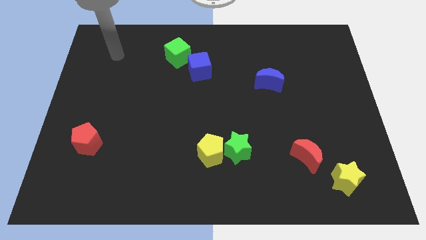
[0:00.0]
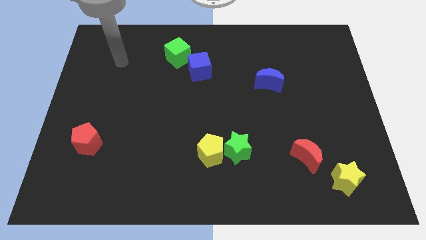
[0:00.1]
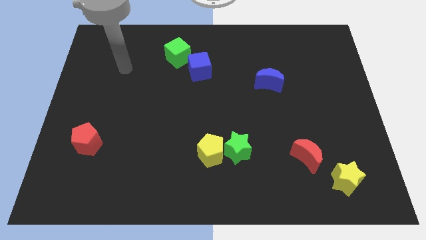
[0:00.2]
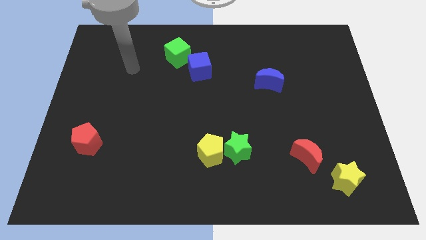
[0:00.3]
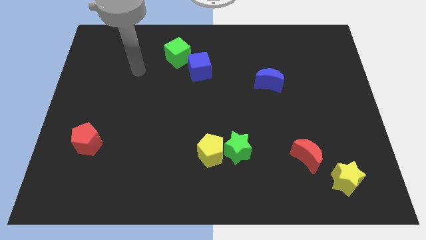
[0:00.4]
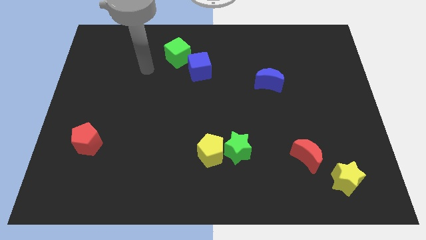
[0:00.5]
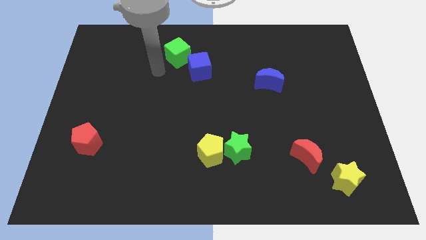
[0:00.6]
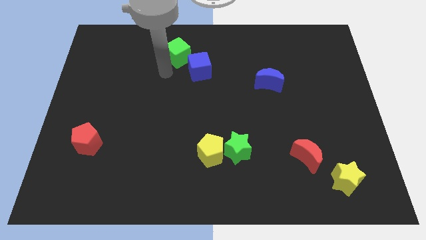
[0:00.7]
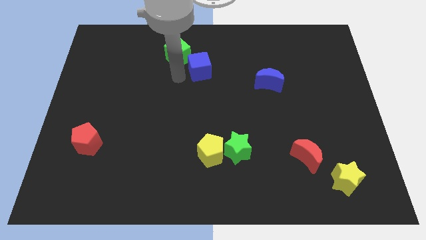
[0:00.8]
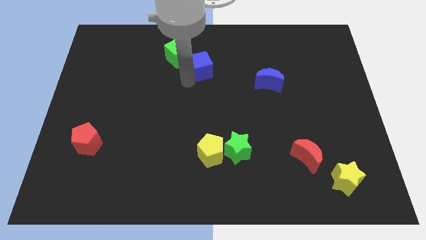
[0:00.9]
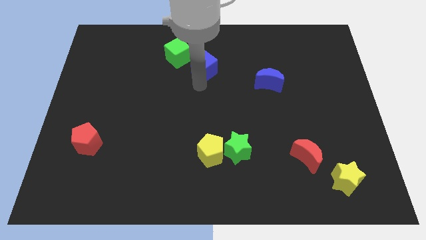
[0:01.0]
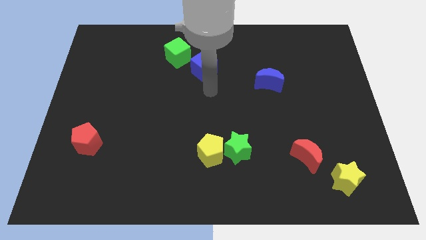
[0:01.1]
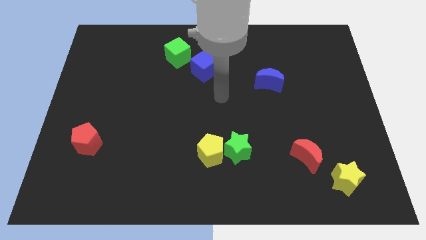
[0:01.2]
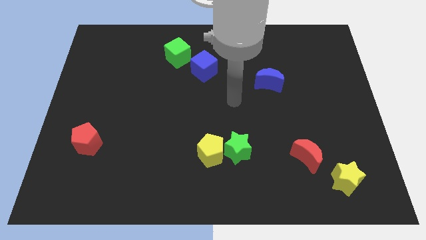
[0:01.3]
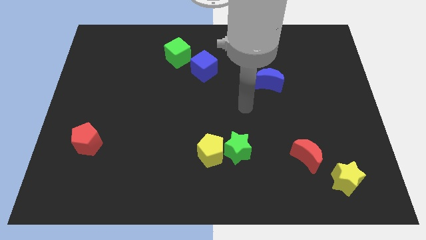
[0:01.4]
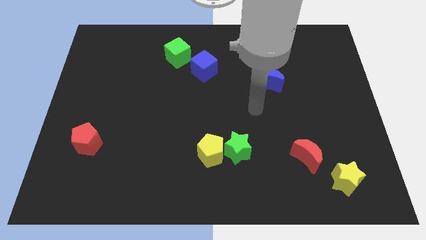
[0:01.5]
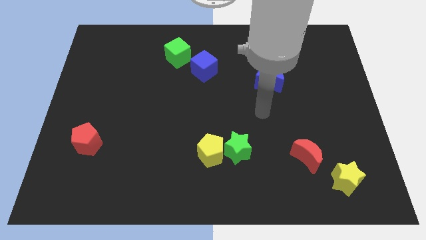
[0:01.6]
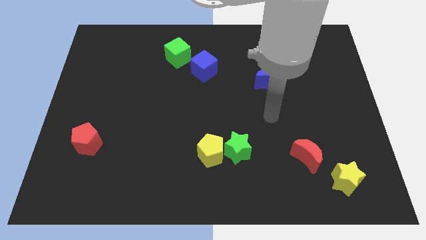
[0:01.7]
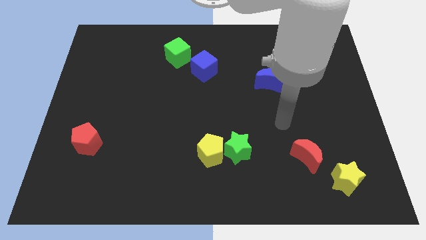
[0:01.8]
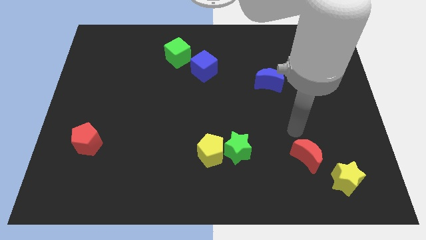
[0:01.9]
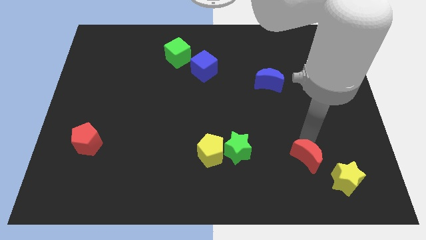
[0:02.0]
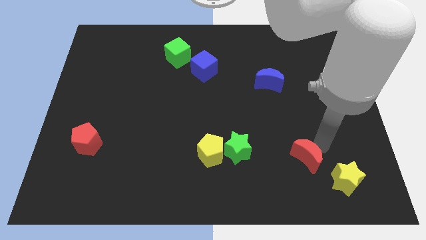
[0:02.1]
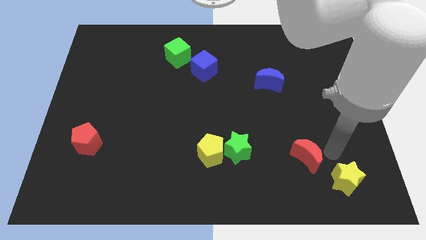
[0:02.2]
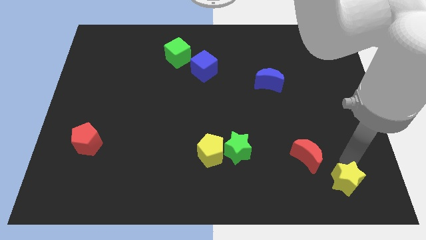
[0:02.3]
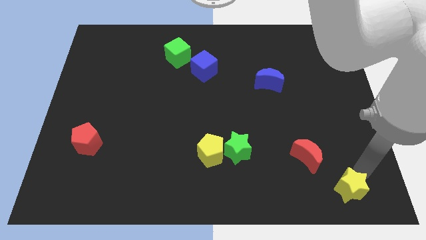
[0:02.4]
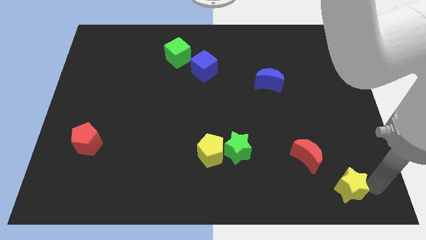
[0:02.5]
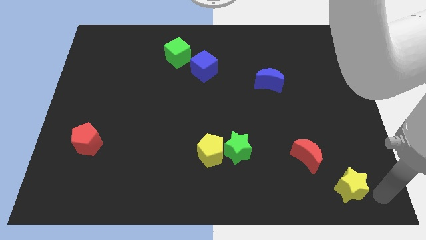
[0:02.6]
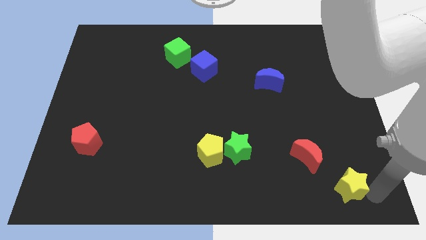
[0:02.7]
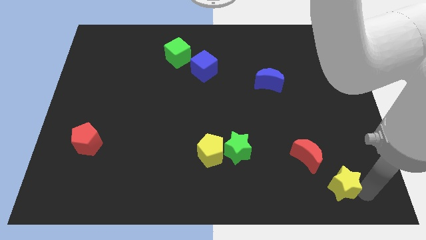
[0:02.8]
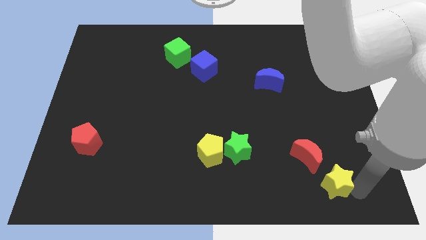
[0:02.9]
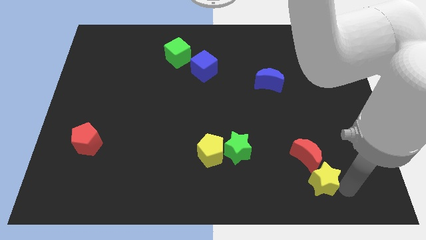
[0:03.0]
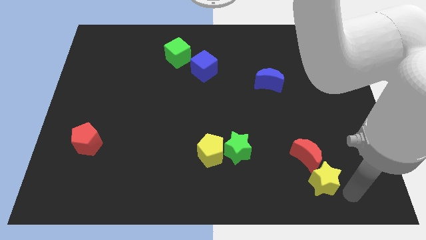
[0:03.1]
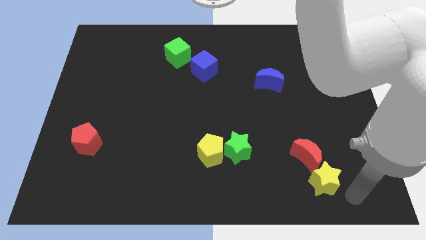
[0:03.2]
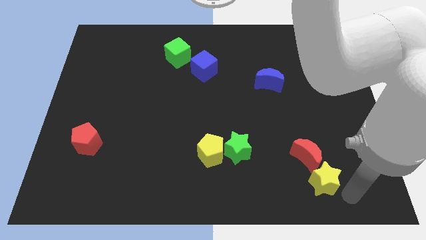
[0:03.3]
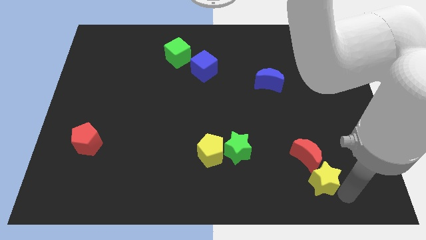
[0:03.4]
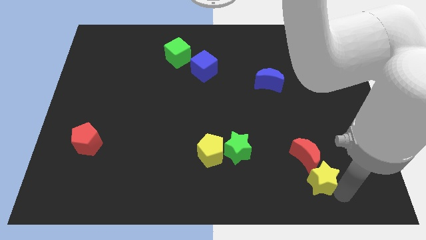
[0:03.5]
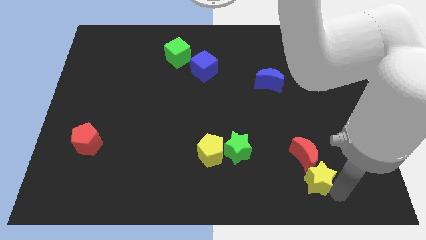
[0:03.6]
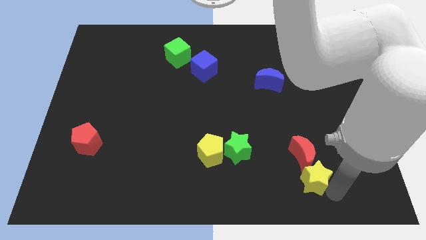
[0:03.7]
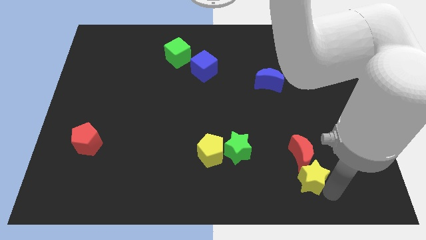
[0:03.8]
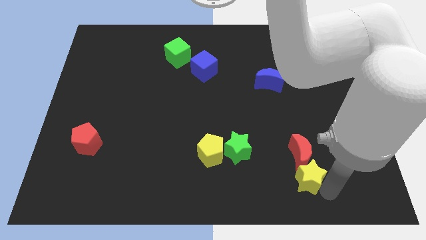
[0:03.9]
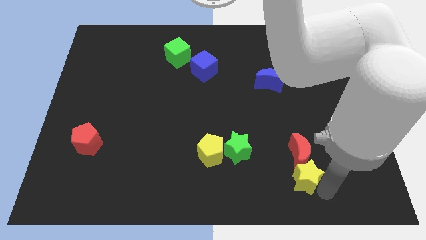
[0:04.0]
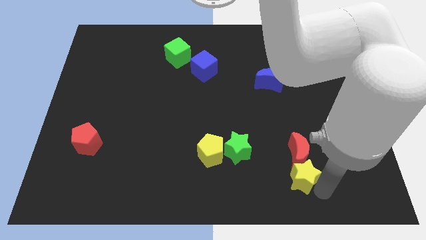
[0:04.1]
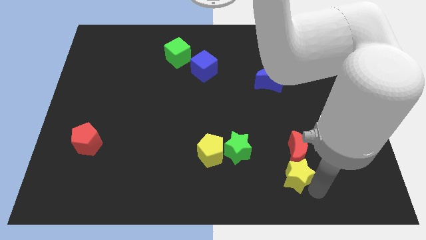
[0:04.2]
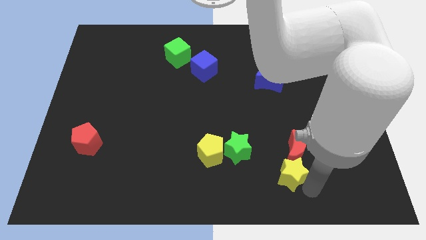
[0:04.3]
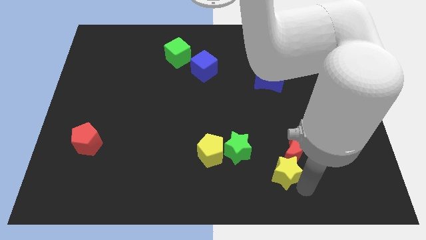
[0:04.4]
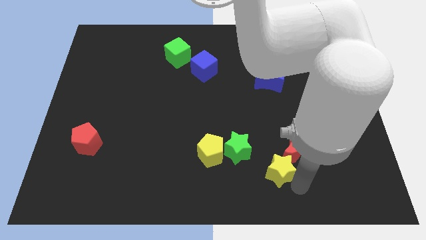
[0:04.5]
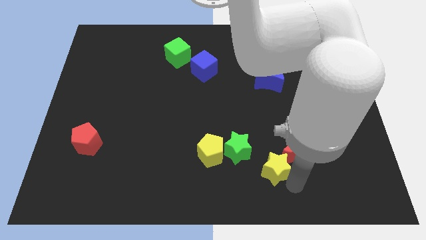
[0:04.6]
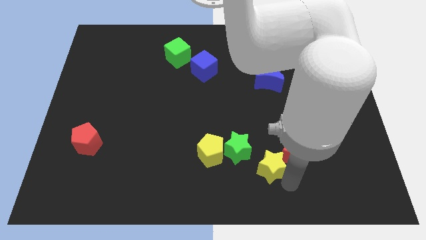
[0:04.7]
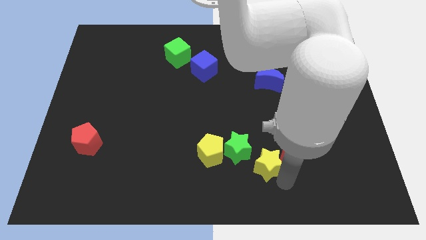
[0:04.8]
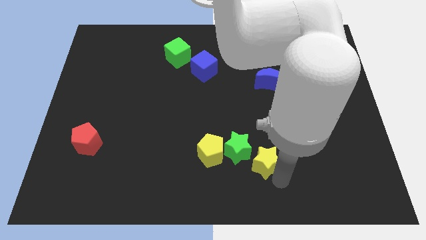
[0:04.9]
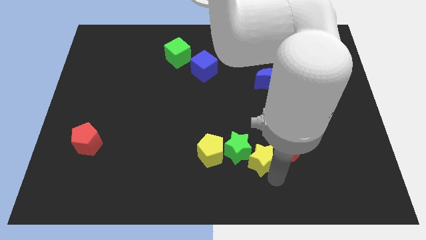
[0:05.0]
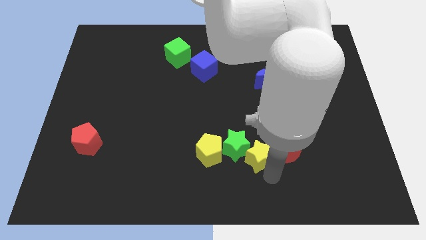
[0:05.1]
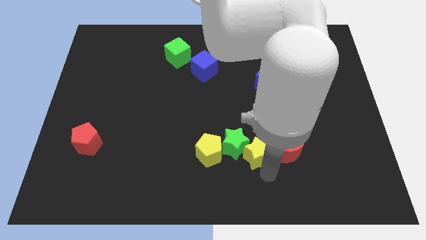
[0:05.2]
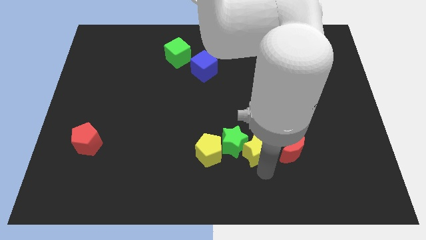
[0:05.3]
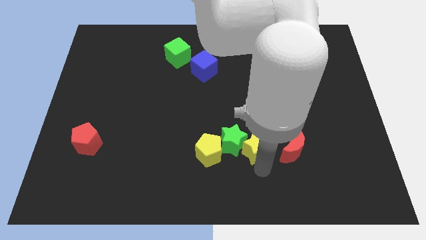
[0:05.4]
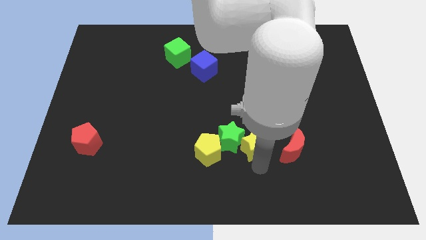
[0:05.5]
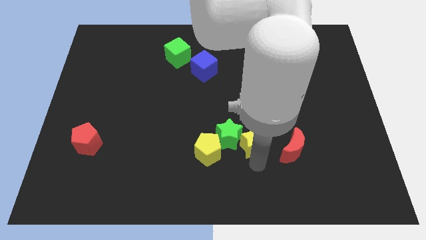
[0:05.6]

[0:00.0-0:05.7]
put the yellow star to the top left side of the red moon

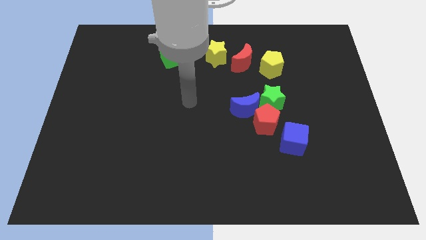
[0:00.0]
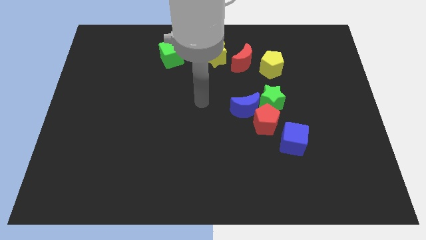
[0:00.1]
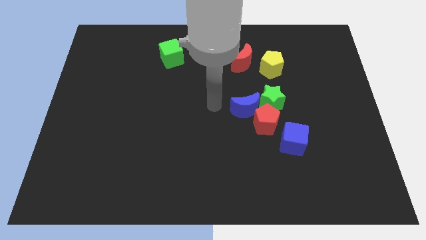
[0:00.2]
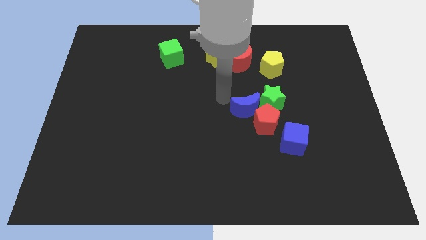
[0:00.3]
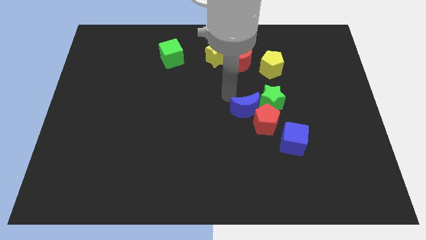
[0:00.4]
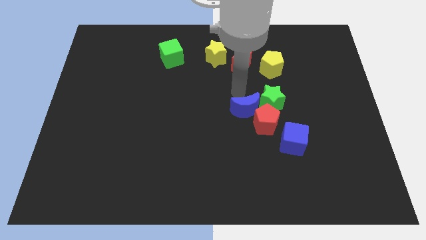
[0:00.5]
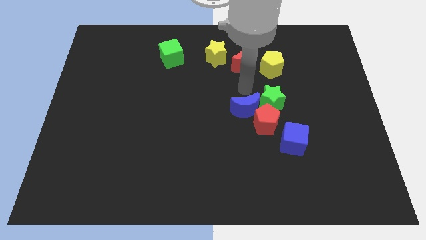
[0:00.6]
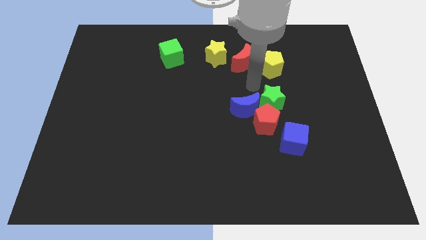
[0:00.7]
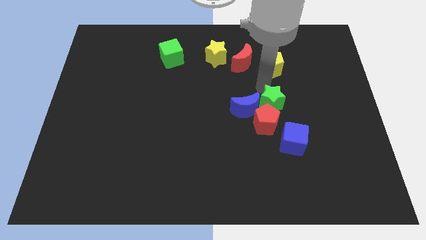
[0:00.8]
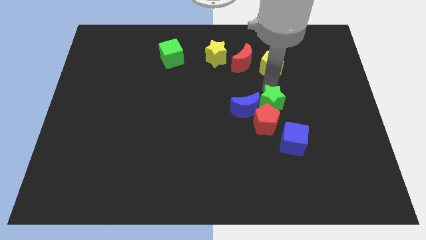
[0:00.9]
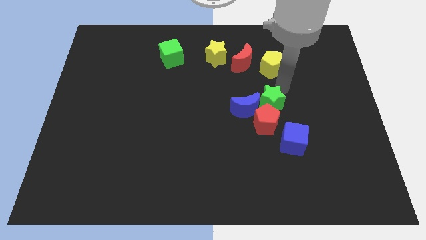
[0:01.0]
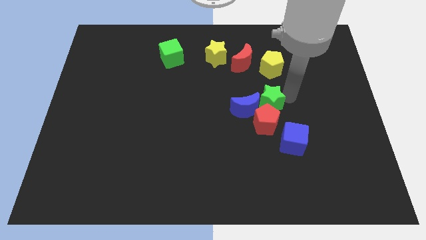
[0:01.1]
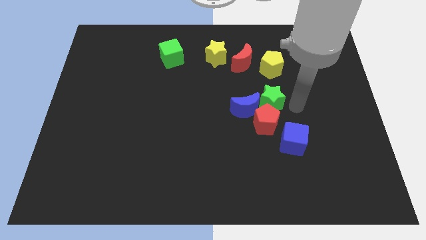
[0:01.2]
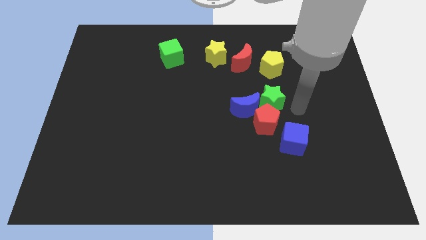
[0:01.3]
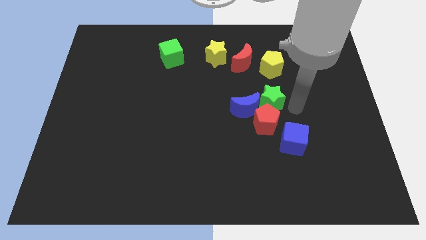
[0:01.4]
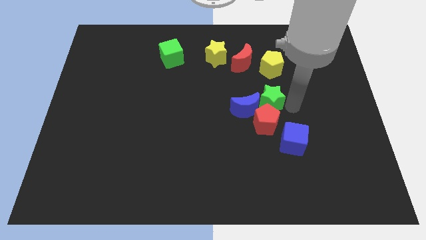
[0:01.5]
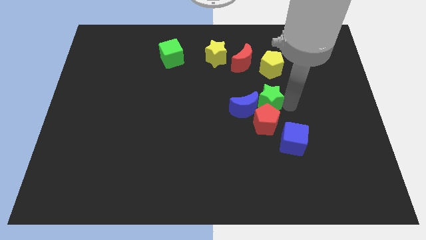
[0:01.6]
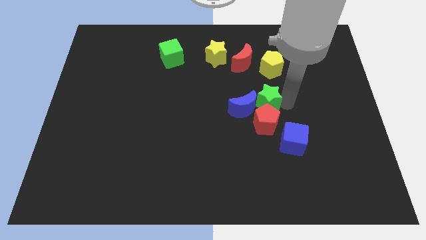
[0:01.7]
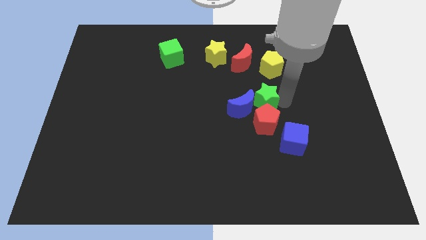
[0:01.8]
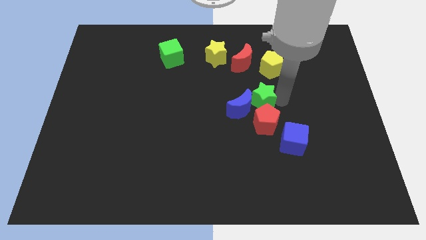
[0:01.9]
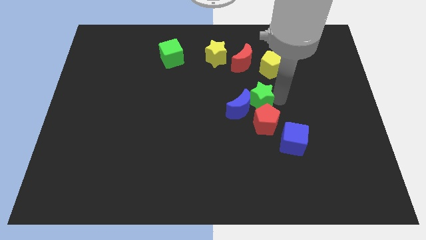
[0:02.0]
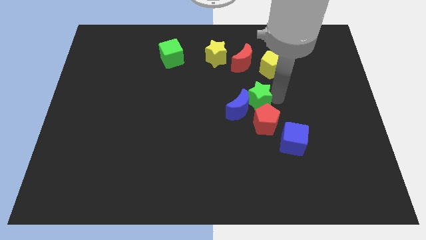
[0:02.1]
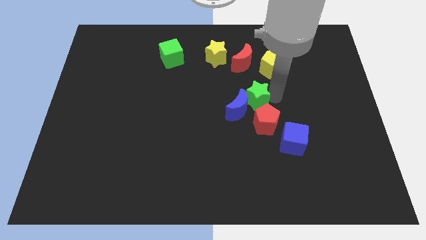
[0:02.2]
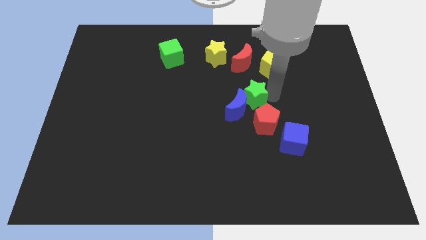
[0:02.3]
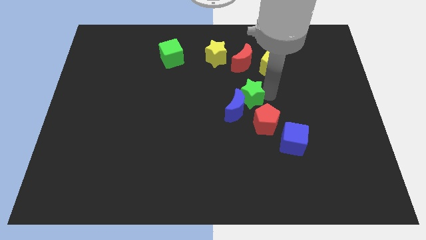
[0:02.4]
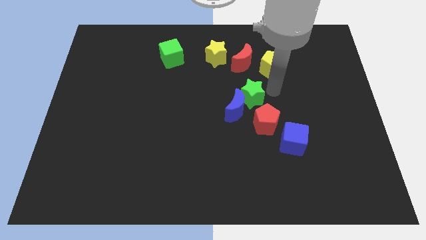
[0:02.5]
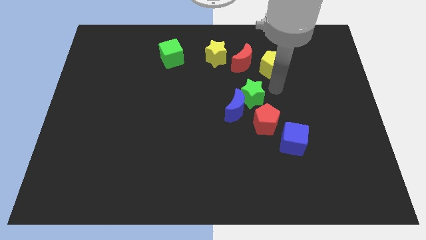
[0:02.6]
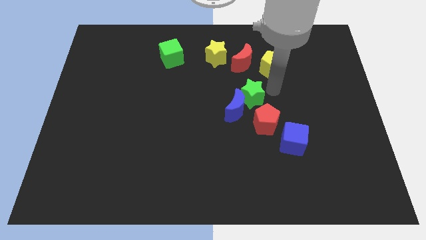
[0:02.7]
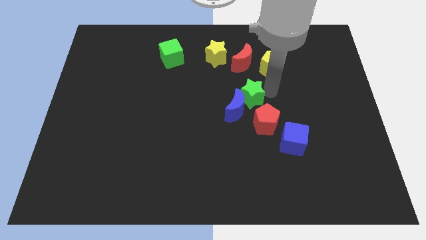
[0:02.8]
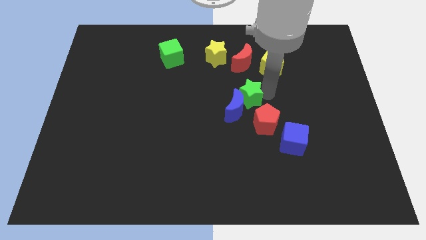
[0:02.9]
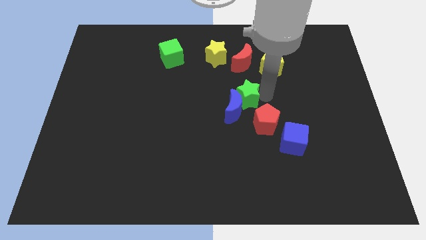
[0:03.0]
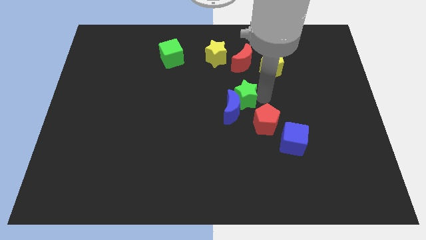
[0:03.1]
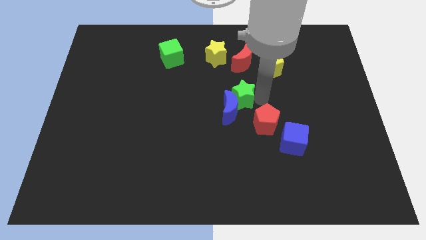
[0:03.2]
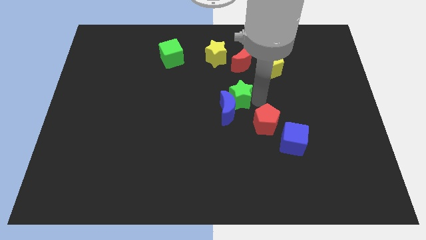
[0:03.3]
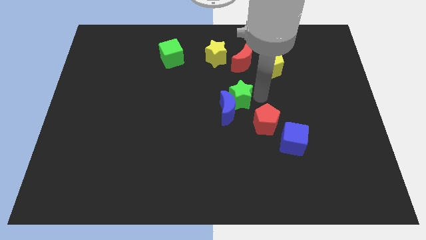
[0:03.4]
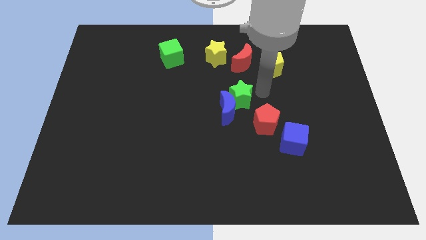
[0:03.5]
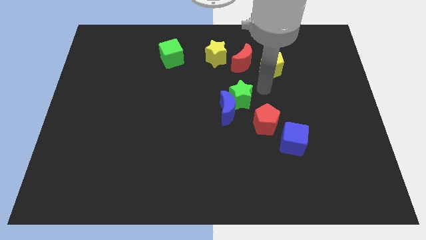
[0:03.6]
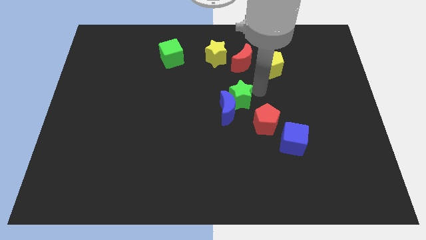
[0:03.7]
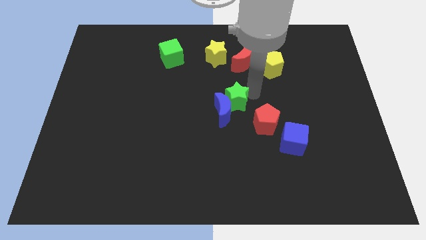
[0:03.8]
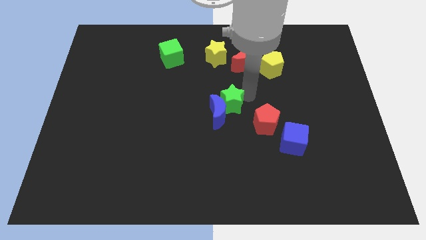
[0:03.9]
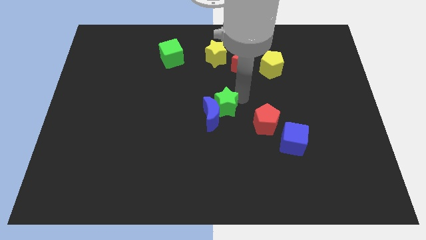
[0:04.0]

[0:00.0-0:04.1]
push the green star to the left side of the red pentagon
